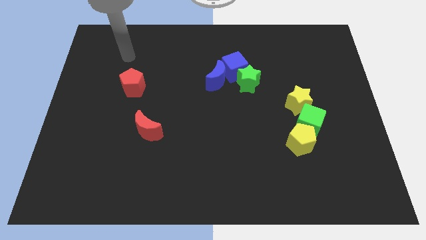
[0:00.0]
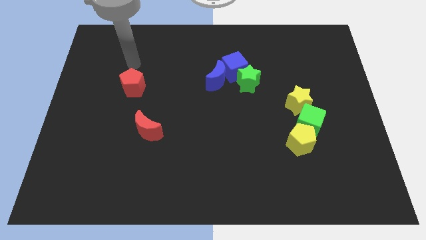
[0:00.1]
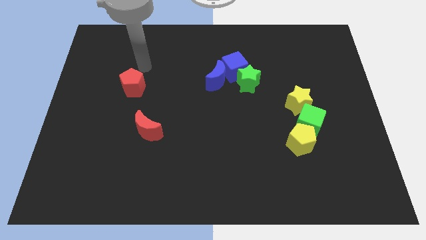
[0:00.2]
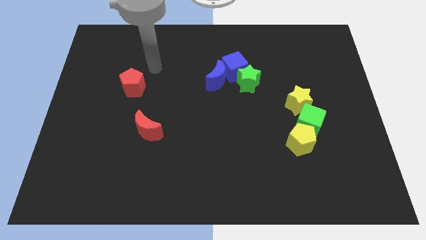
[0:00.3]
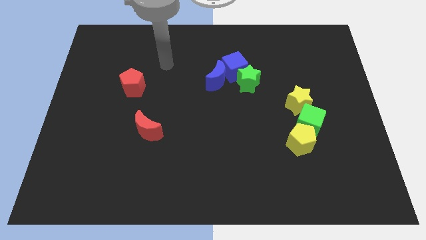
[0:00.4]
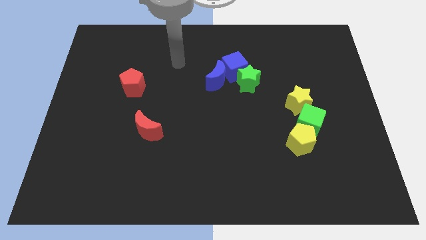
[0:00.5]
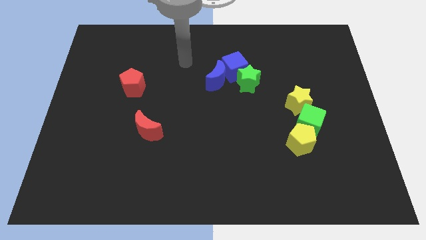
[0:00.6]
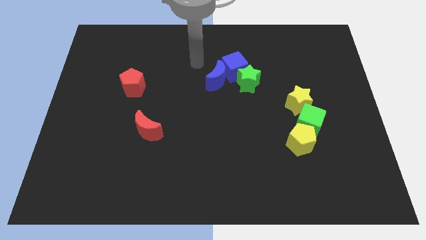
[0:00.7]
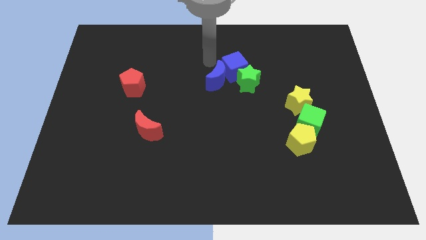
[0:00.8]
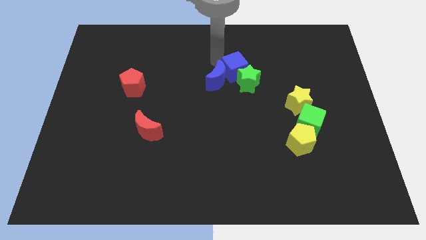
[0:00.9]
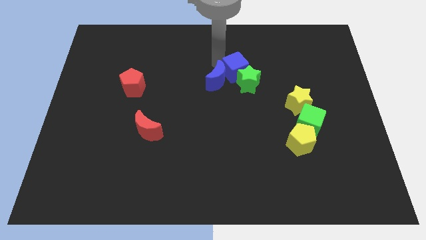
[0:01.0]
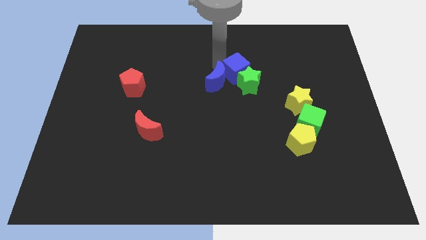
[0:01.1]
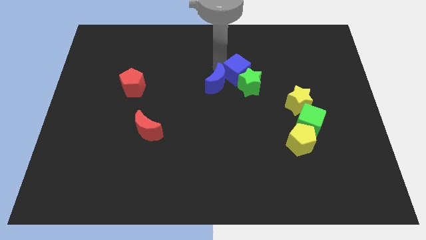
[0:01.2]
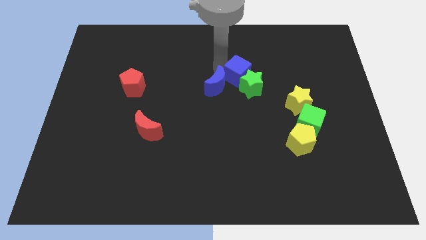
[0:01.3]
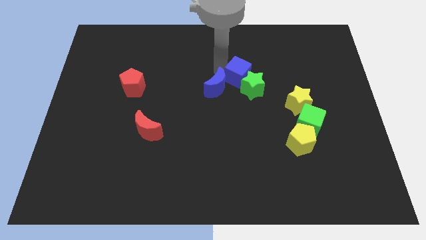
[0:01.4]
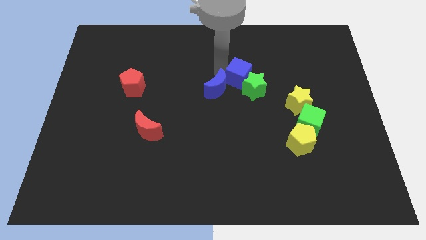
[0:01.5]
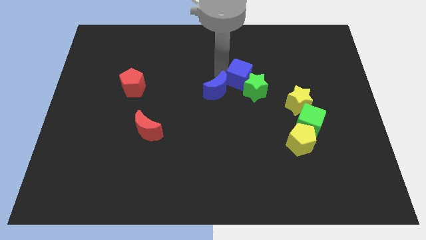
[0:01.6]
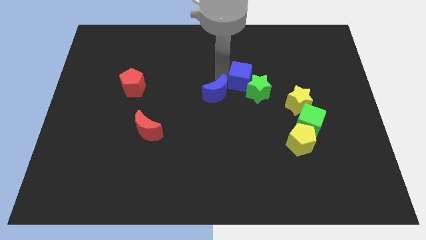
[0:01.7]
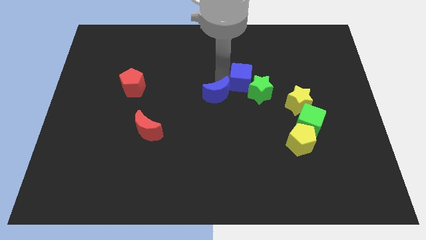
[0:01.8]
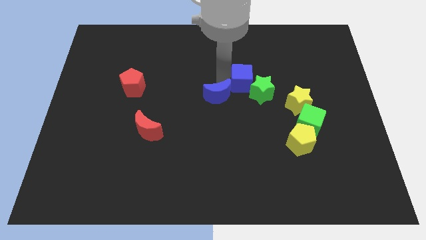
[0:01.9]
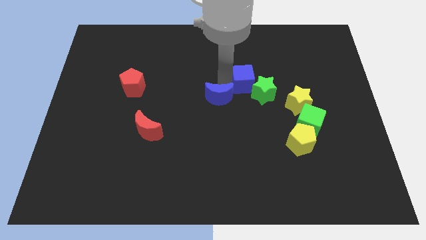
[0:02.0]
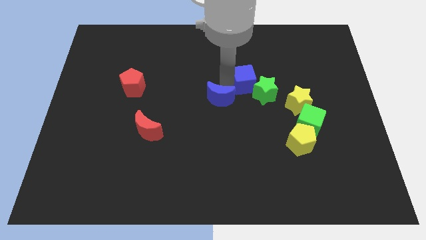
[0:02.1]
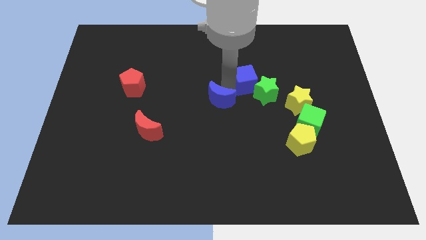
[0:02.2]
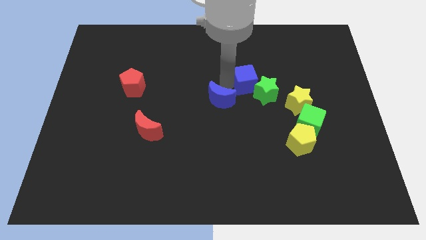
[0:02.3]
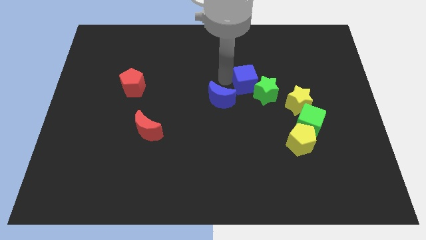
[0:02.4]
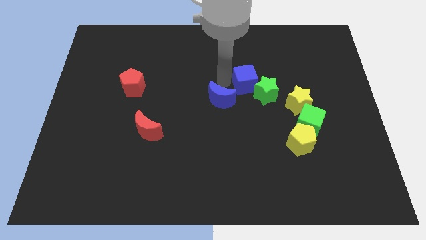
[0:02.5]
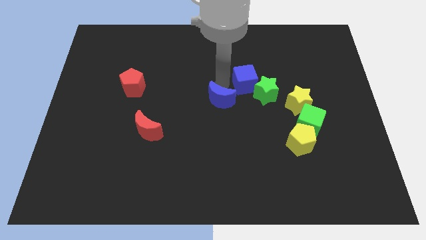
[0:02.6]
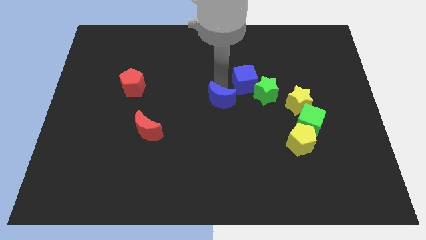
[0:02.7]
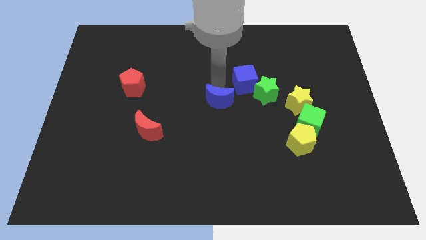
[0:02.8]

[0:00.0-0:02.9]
slightly slide the blue moon down

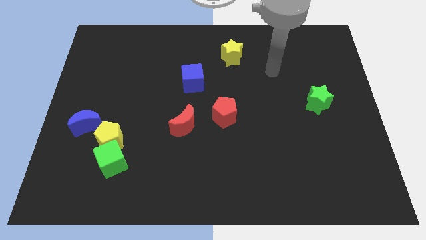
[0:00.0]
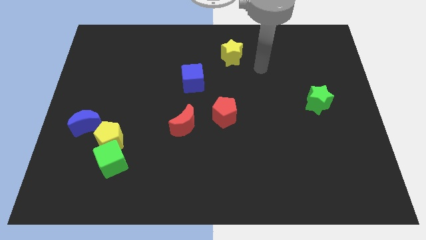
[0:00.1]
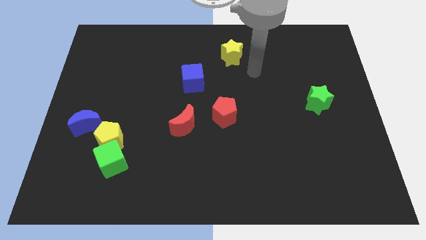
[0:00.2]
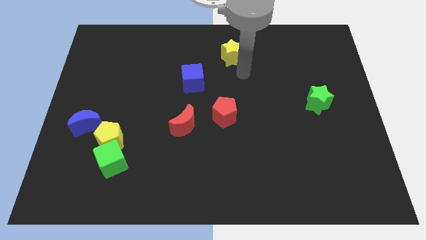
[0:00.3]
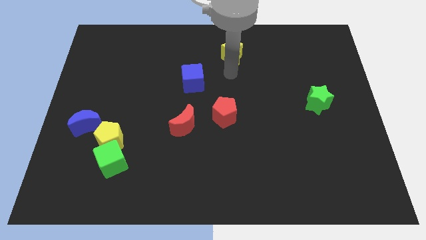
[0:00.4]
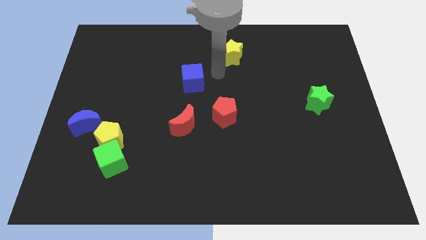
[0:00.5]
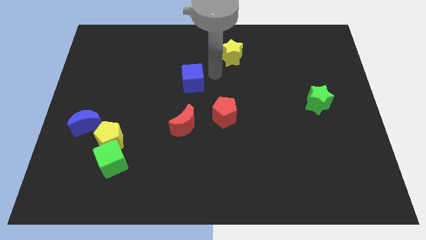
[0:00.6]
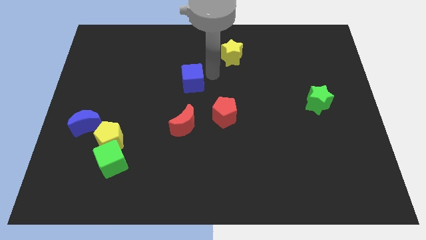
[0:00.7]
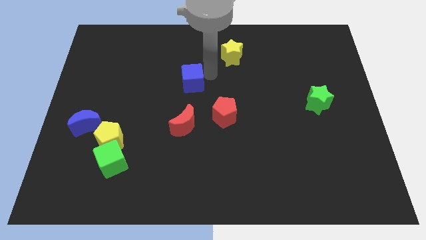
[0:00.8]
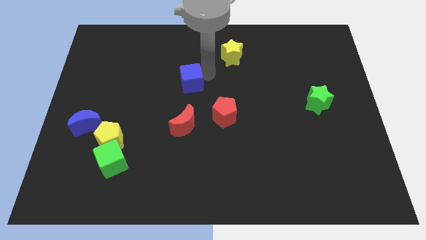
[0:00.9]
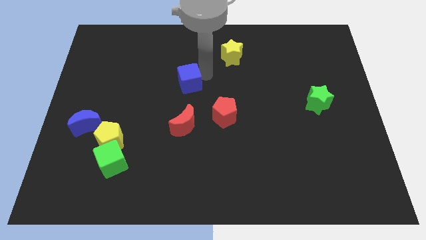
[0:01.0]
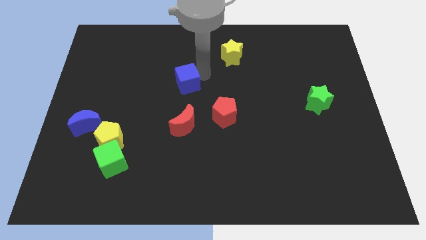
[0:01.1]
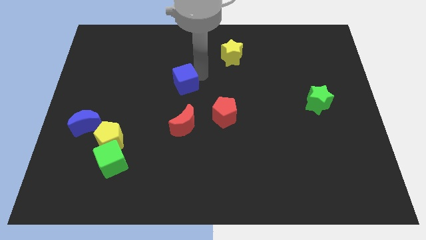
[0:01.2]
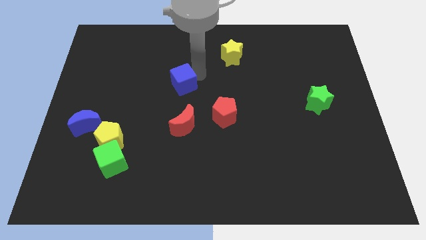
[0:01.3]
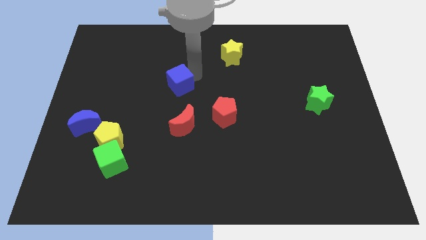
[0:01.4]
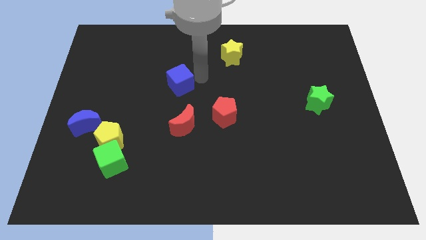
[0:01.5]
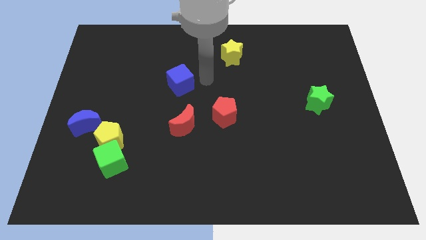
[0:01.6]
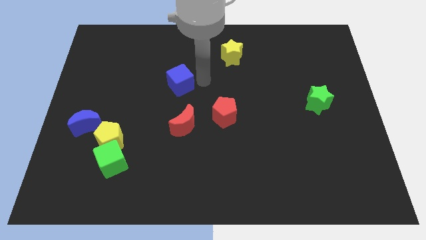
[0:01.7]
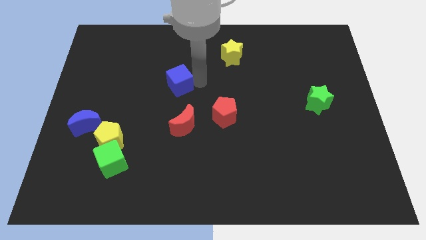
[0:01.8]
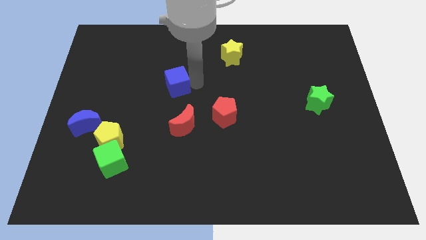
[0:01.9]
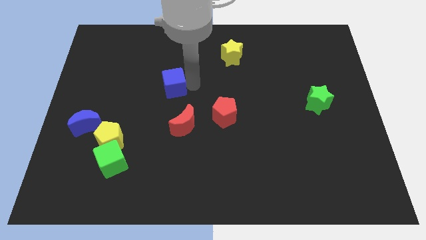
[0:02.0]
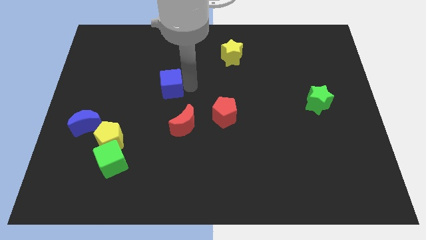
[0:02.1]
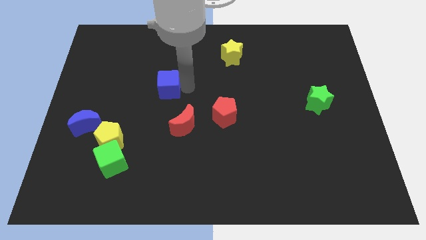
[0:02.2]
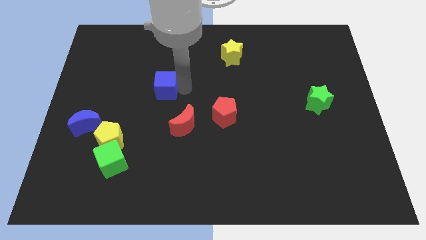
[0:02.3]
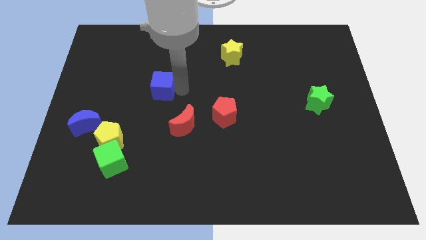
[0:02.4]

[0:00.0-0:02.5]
slightly move the blue cube left

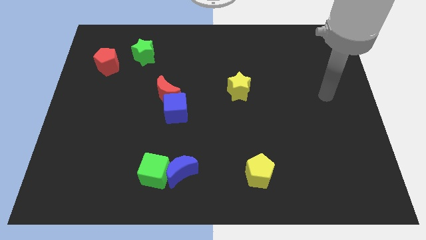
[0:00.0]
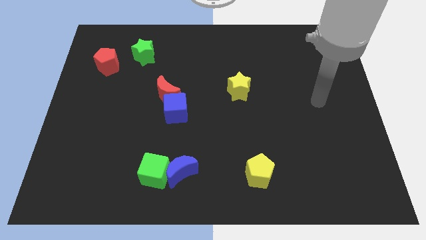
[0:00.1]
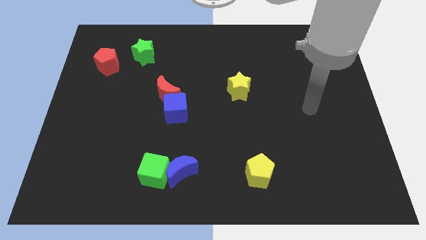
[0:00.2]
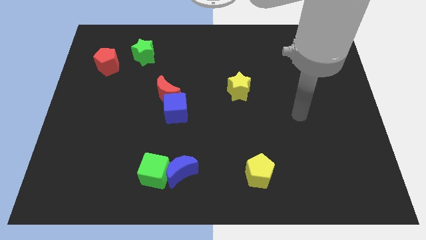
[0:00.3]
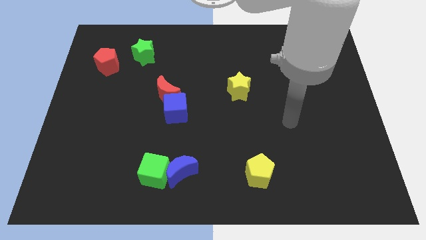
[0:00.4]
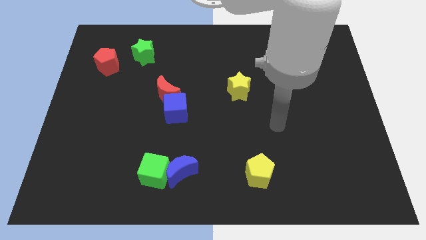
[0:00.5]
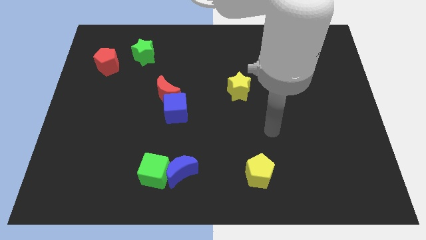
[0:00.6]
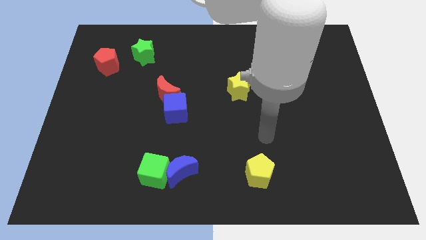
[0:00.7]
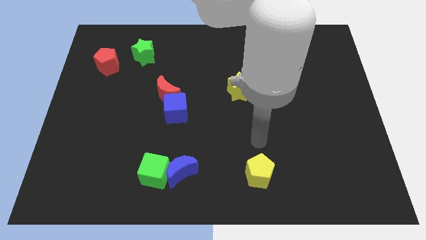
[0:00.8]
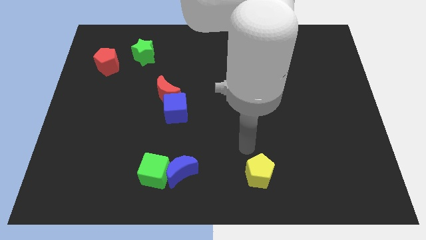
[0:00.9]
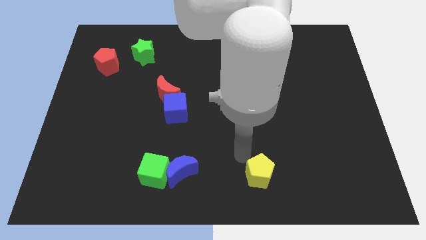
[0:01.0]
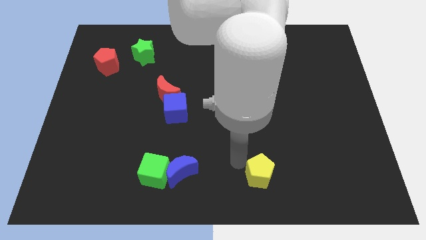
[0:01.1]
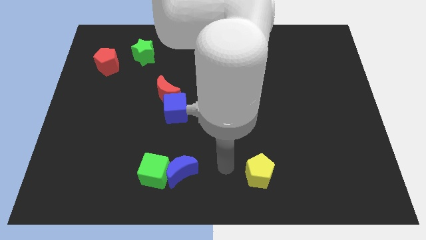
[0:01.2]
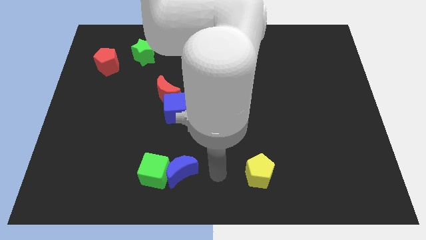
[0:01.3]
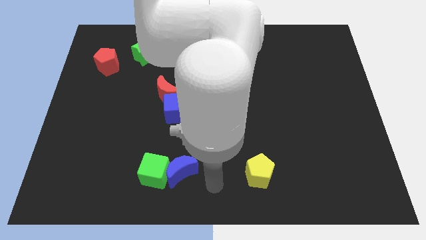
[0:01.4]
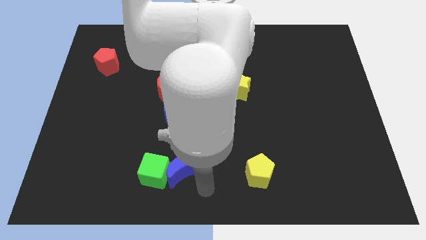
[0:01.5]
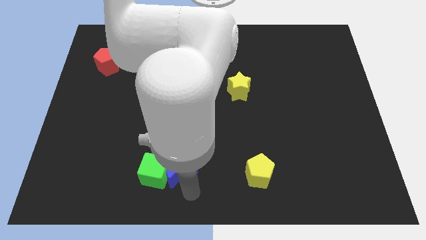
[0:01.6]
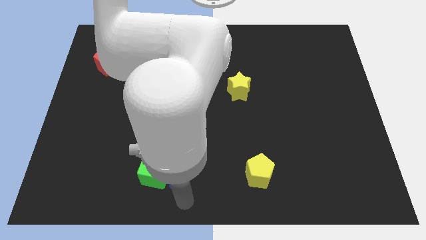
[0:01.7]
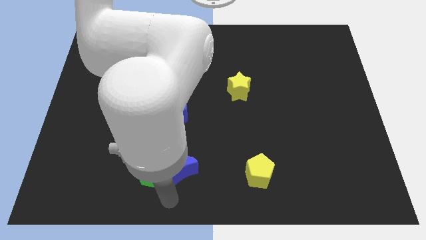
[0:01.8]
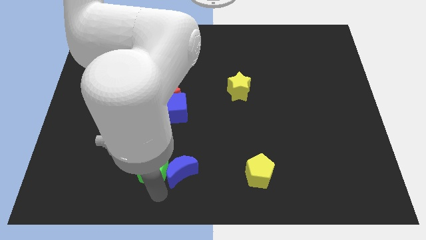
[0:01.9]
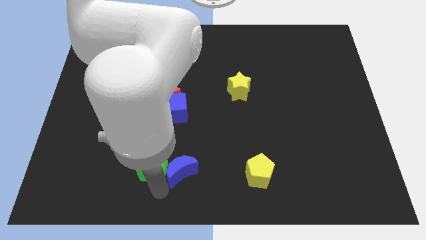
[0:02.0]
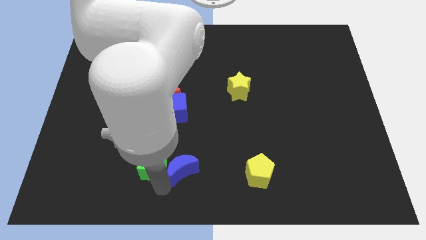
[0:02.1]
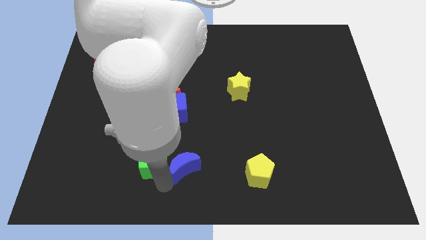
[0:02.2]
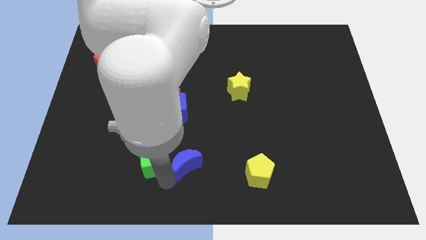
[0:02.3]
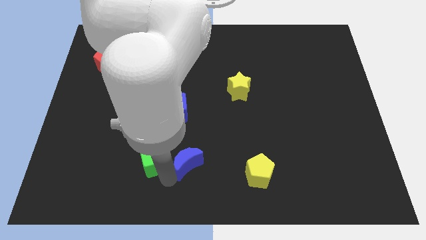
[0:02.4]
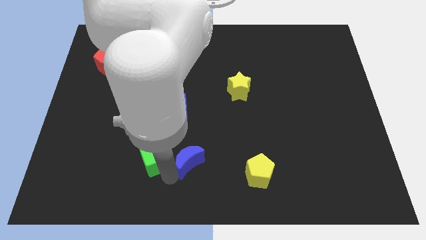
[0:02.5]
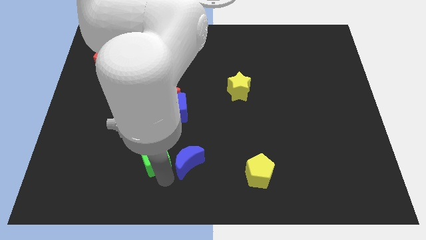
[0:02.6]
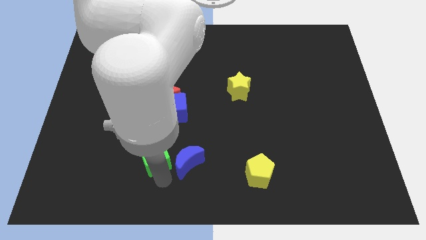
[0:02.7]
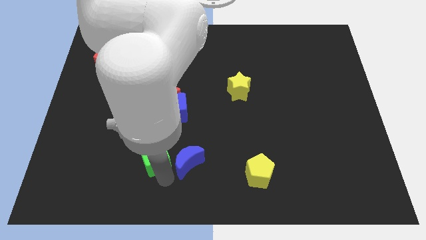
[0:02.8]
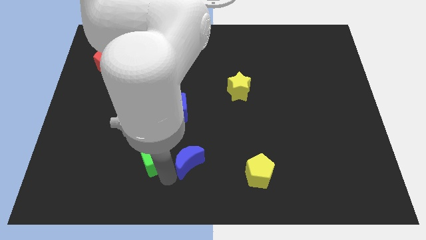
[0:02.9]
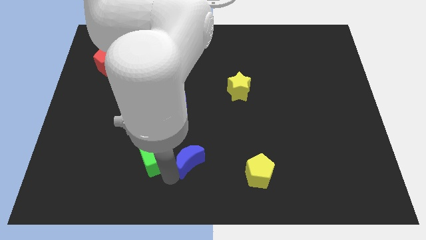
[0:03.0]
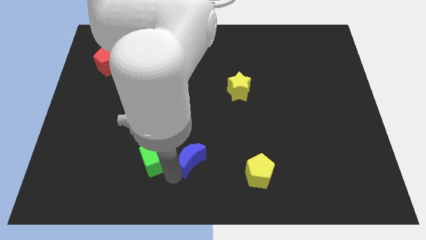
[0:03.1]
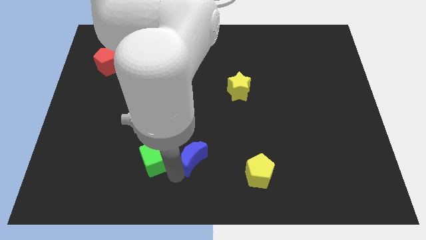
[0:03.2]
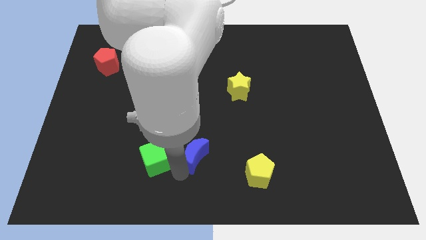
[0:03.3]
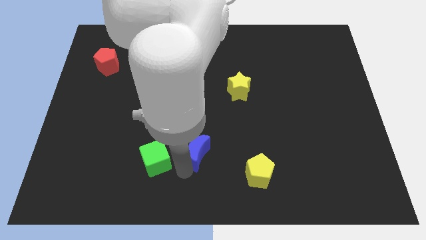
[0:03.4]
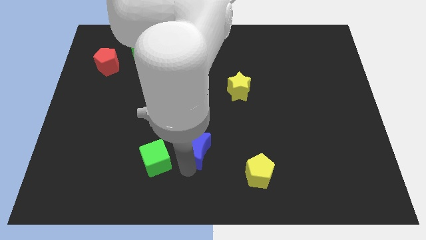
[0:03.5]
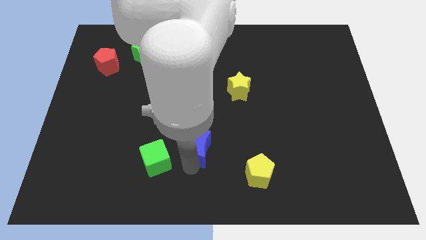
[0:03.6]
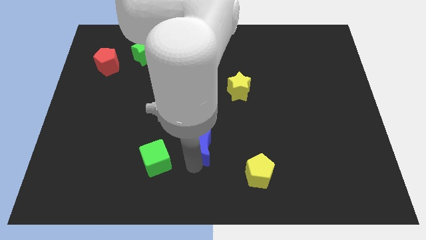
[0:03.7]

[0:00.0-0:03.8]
push the blue moon up and right diagonally slightly
